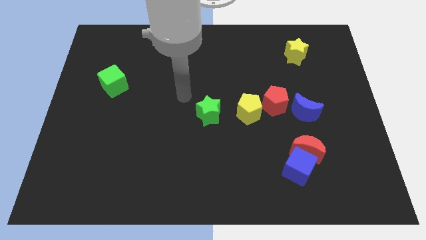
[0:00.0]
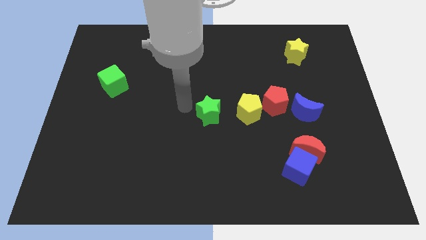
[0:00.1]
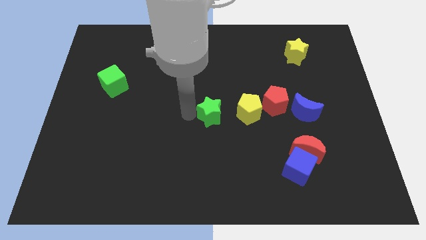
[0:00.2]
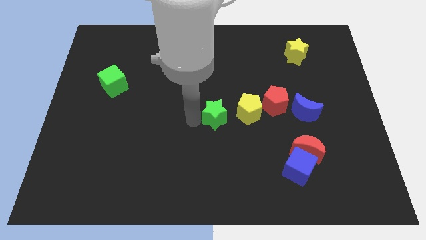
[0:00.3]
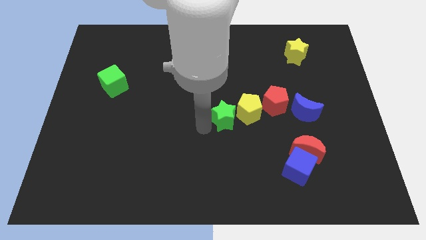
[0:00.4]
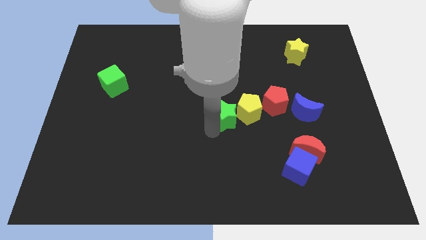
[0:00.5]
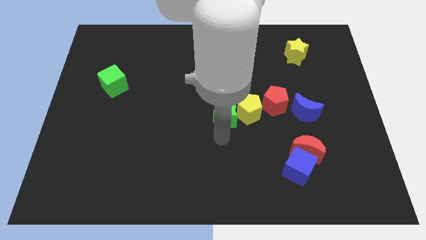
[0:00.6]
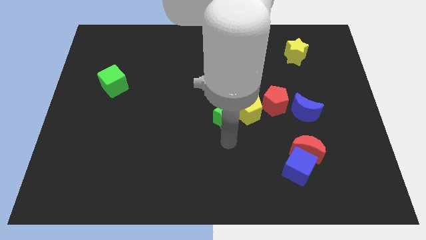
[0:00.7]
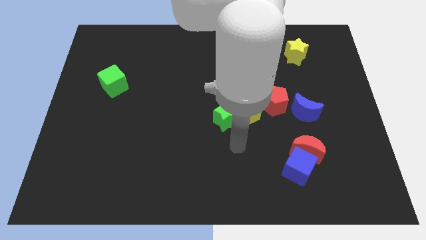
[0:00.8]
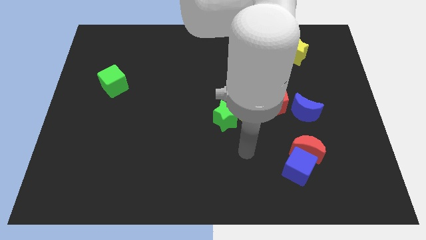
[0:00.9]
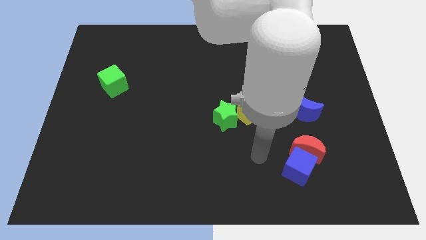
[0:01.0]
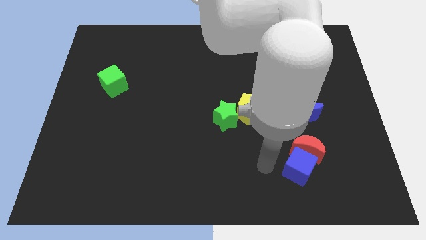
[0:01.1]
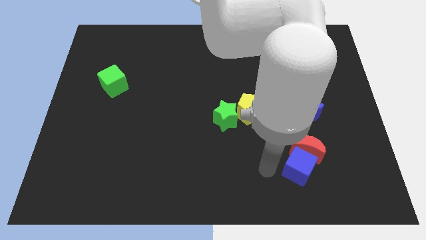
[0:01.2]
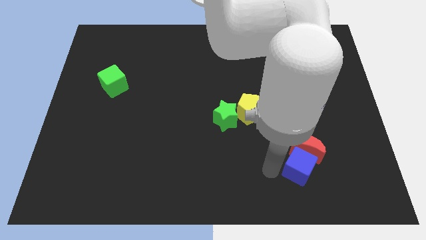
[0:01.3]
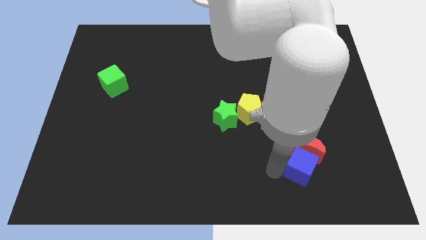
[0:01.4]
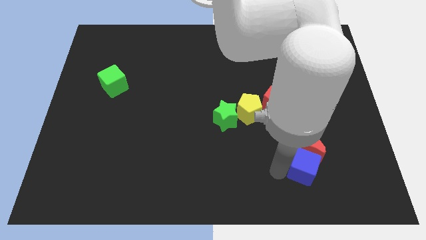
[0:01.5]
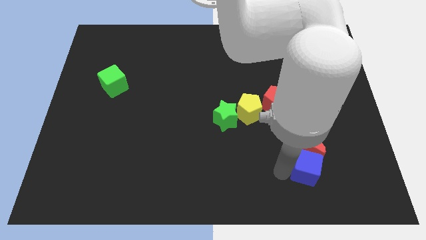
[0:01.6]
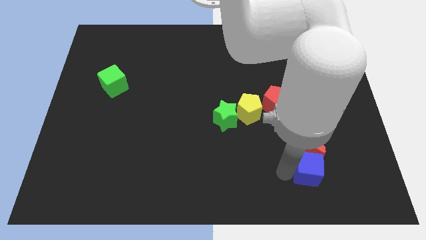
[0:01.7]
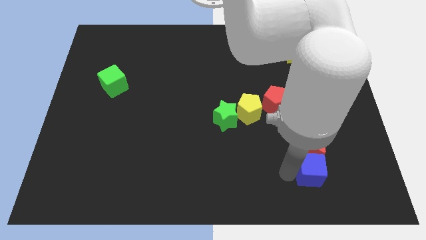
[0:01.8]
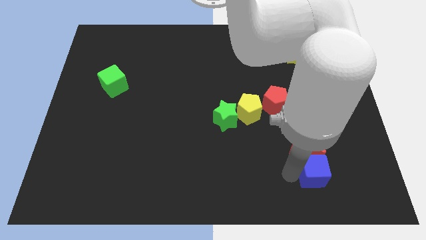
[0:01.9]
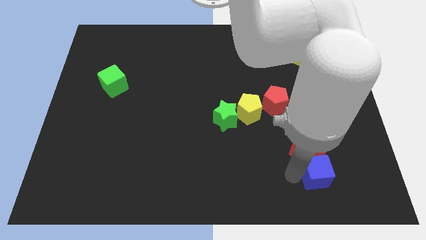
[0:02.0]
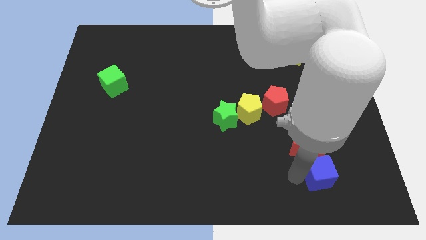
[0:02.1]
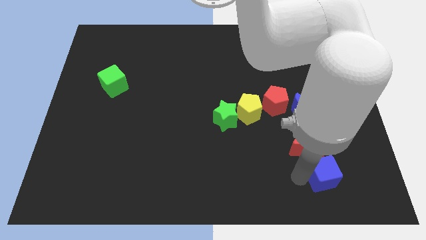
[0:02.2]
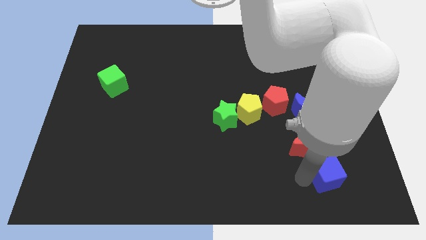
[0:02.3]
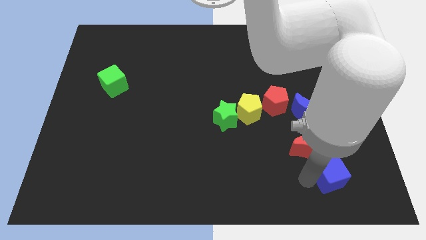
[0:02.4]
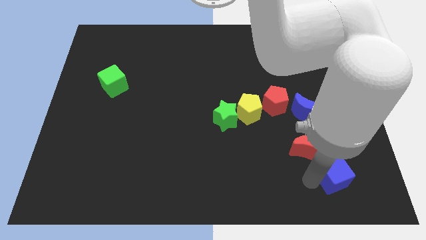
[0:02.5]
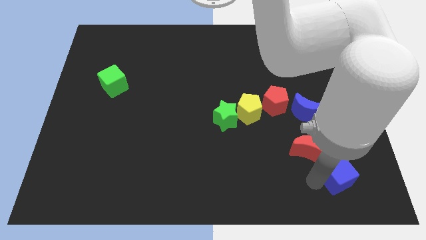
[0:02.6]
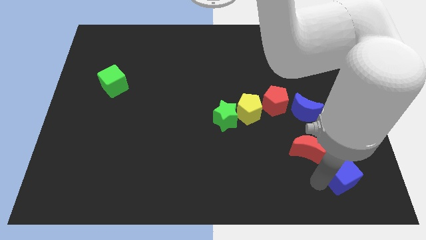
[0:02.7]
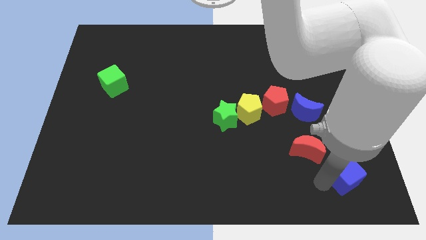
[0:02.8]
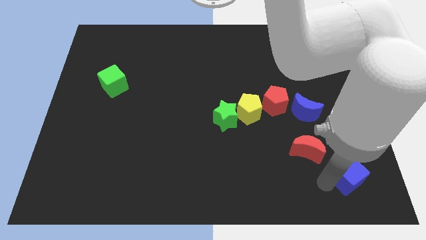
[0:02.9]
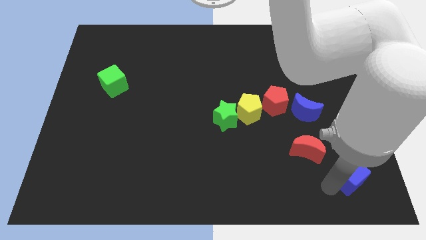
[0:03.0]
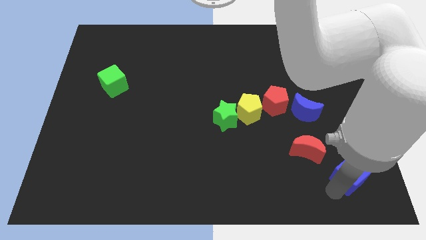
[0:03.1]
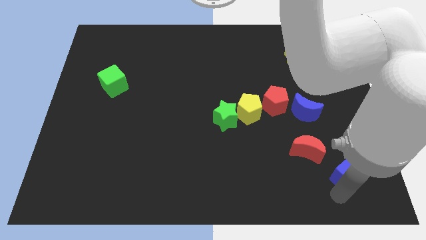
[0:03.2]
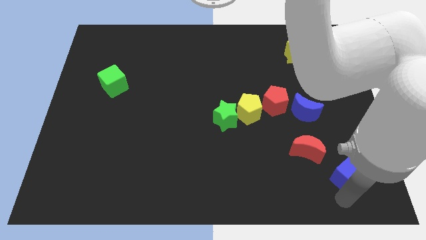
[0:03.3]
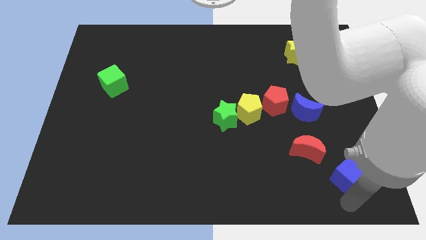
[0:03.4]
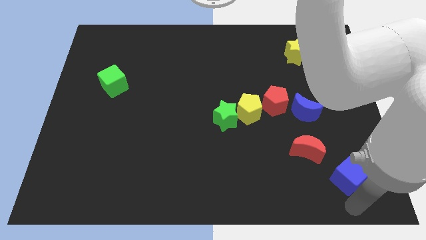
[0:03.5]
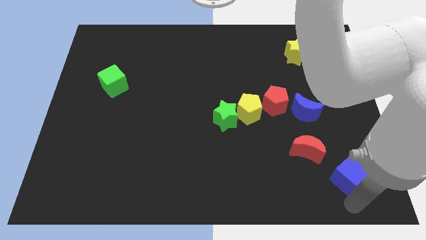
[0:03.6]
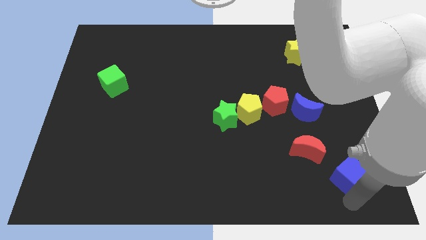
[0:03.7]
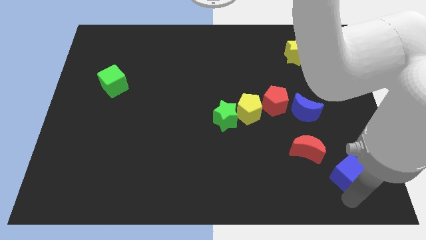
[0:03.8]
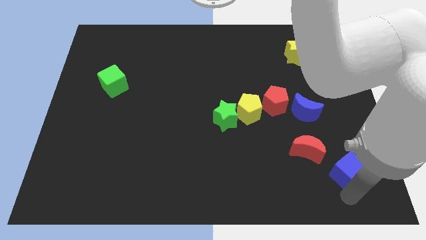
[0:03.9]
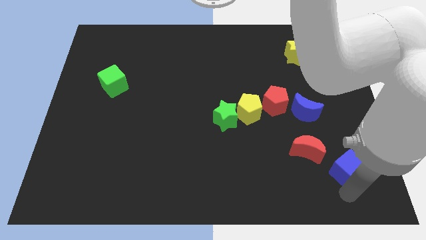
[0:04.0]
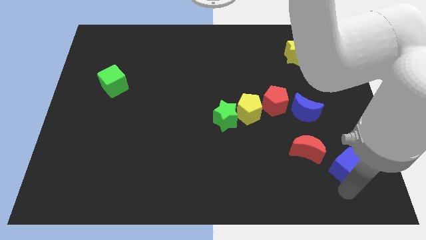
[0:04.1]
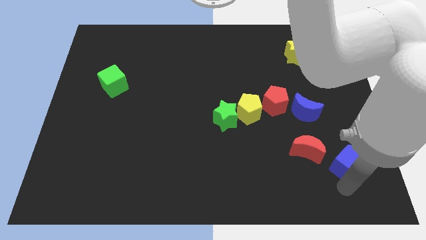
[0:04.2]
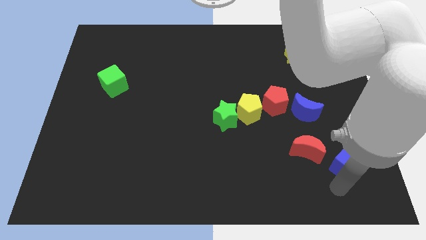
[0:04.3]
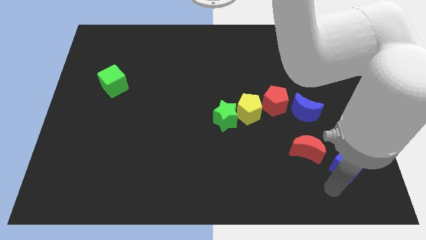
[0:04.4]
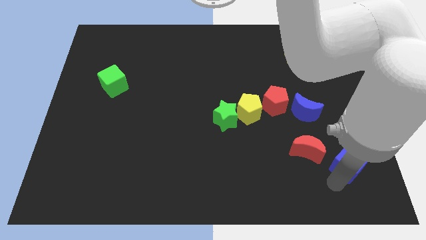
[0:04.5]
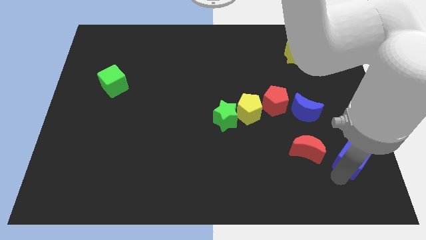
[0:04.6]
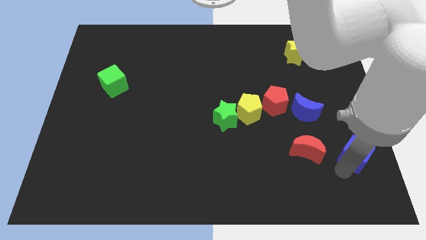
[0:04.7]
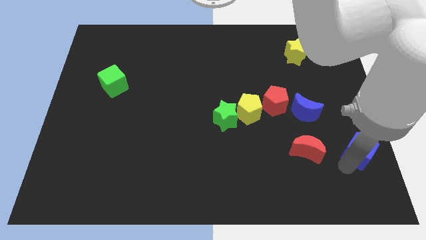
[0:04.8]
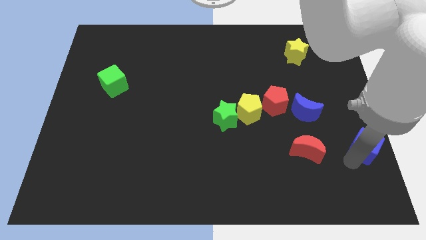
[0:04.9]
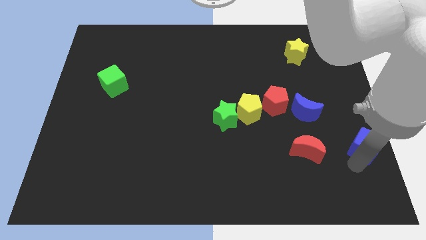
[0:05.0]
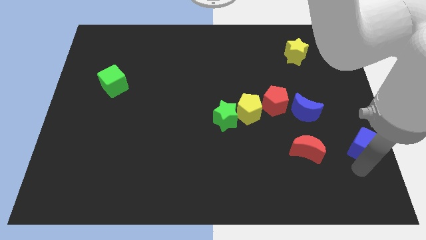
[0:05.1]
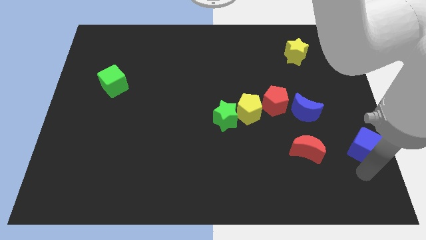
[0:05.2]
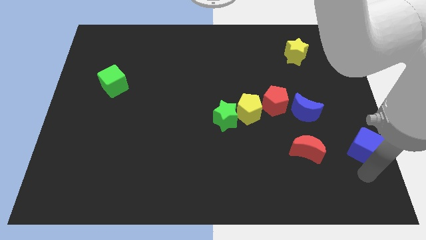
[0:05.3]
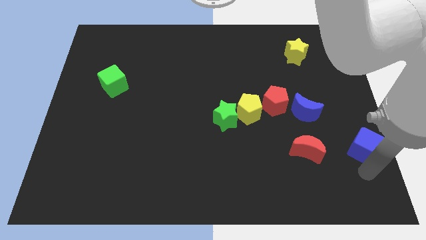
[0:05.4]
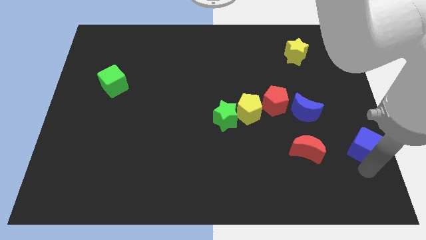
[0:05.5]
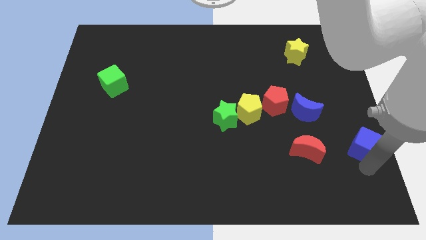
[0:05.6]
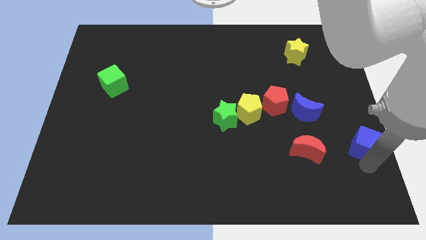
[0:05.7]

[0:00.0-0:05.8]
put the blue cube to the center right
